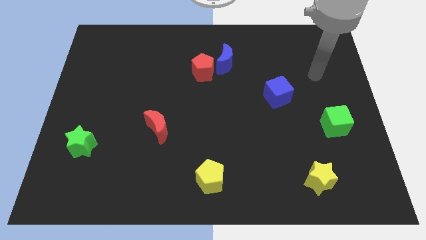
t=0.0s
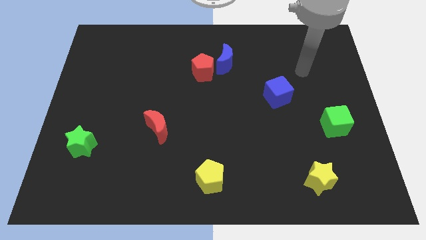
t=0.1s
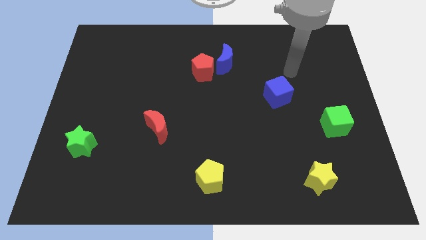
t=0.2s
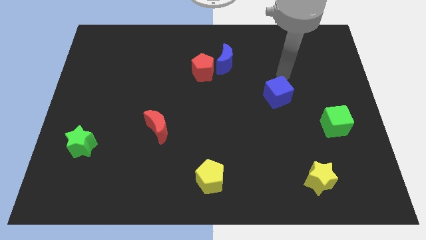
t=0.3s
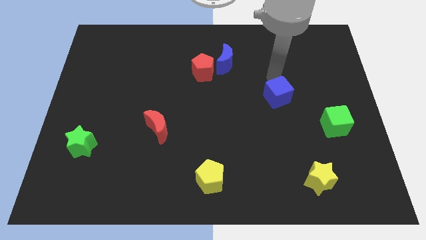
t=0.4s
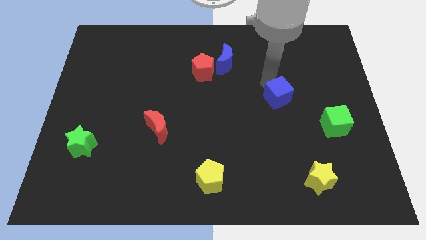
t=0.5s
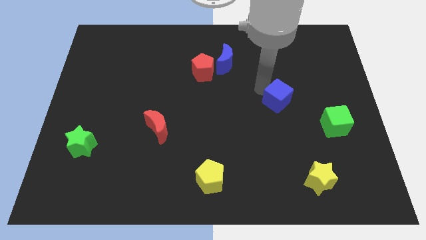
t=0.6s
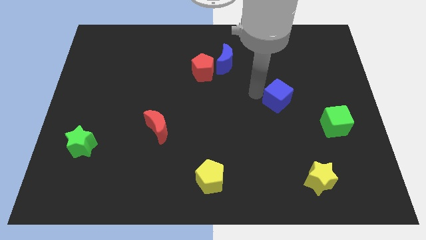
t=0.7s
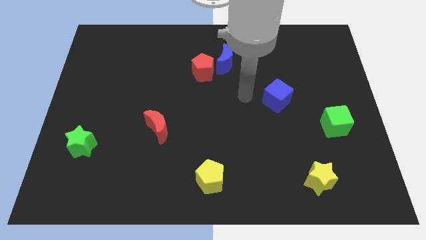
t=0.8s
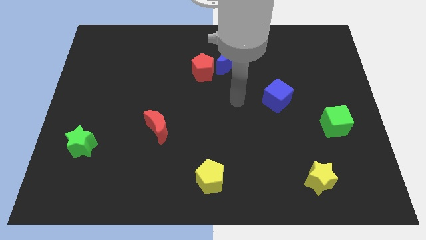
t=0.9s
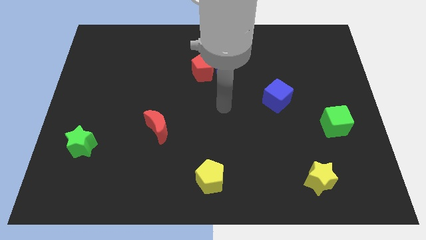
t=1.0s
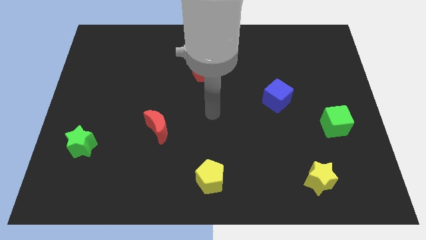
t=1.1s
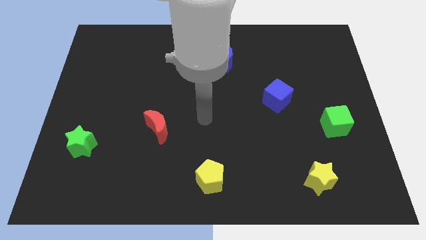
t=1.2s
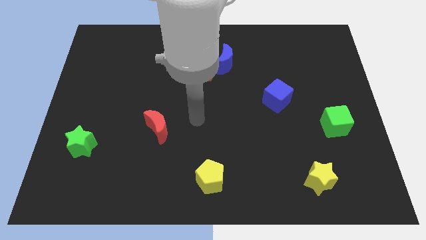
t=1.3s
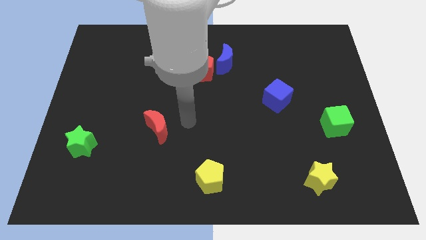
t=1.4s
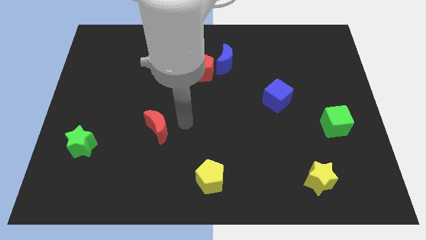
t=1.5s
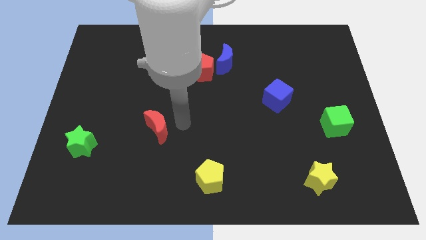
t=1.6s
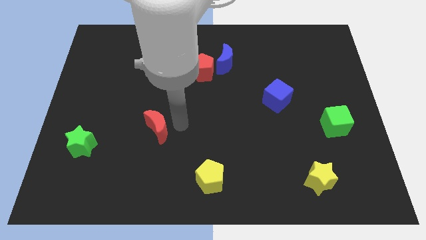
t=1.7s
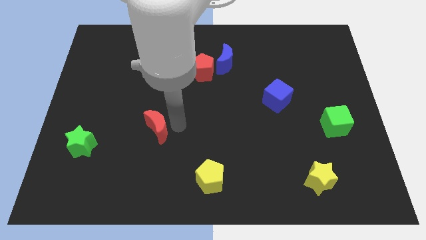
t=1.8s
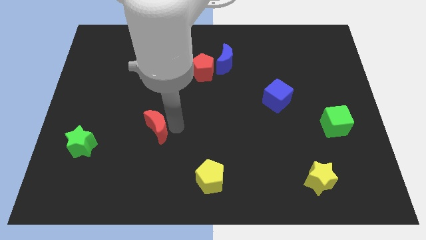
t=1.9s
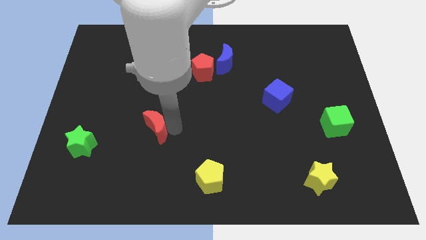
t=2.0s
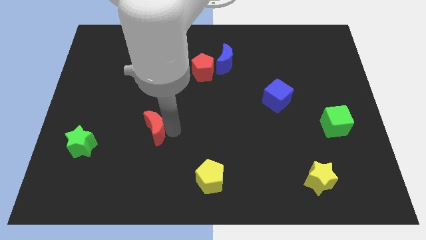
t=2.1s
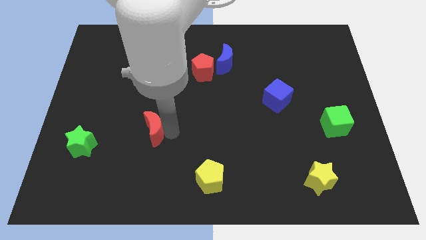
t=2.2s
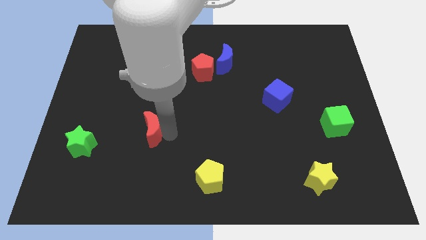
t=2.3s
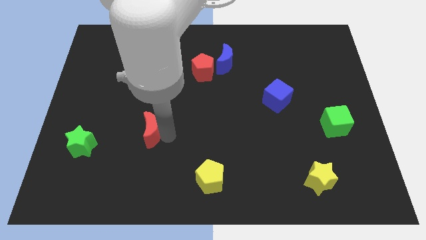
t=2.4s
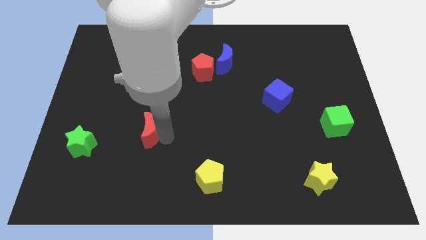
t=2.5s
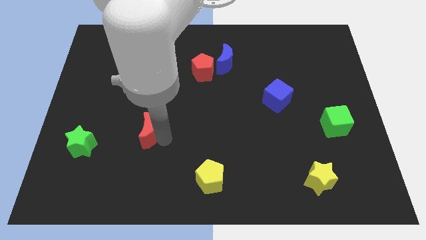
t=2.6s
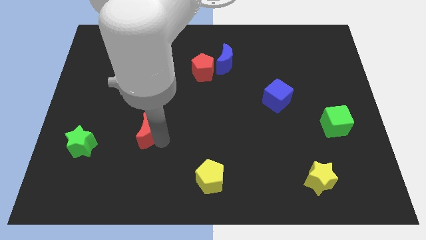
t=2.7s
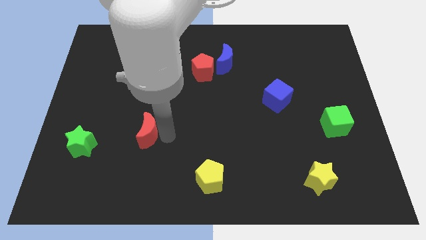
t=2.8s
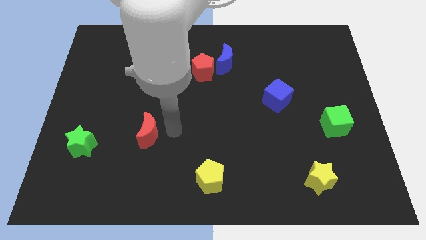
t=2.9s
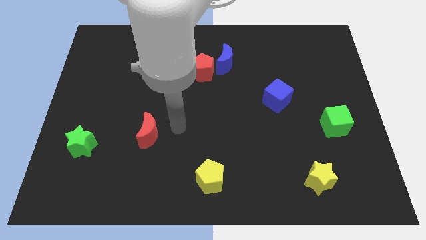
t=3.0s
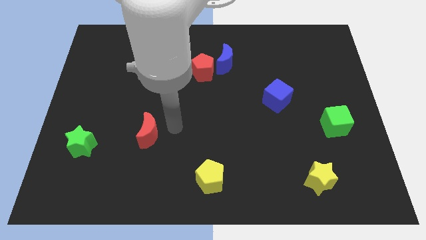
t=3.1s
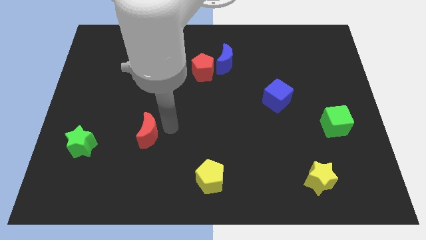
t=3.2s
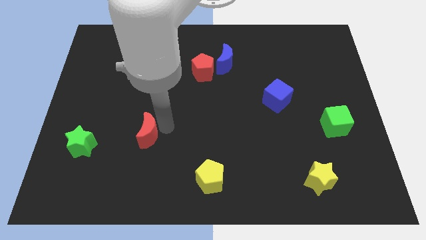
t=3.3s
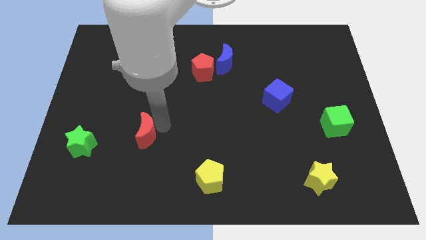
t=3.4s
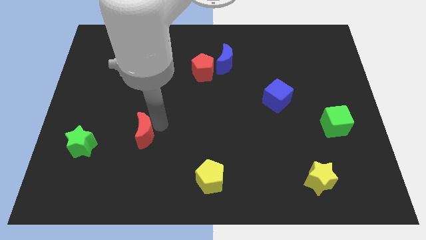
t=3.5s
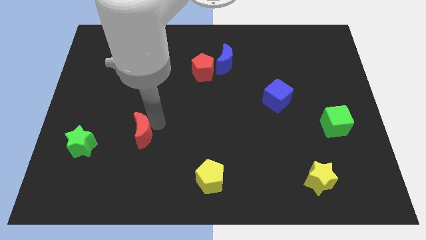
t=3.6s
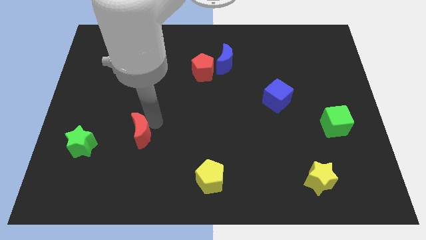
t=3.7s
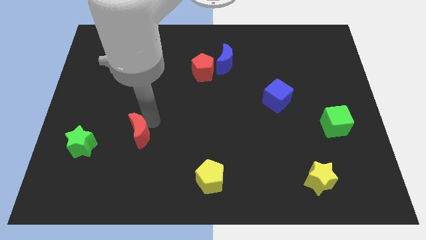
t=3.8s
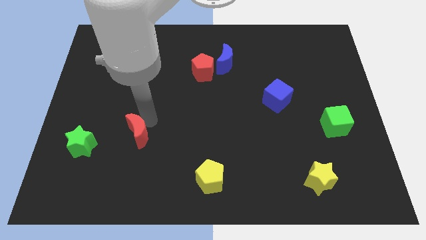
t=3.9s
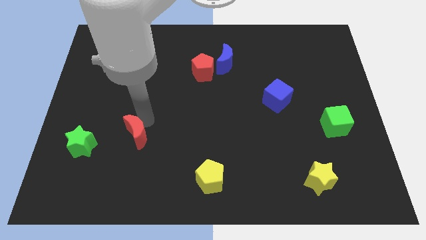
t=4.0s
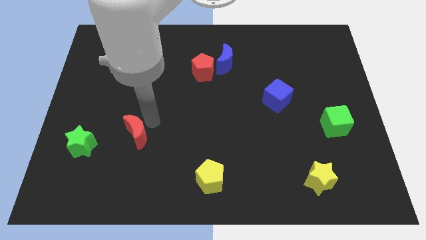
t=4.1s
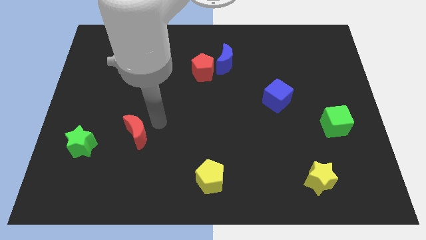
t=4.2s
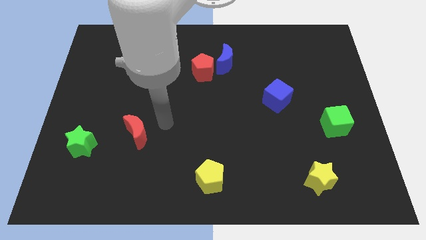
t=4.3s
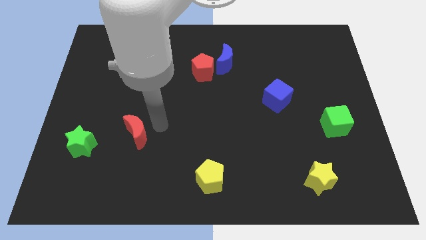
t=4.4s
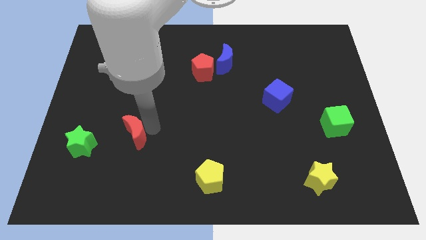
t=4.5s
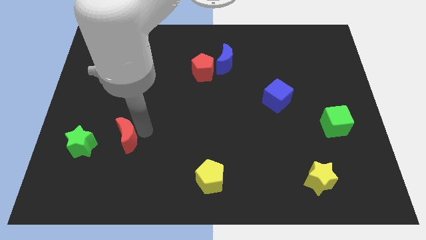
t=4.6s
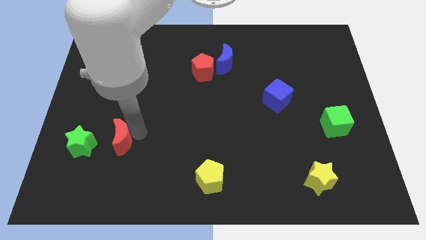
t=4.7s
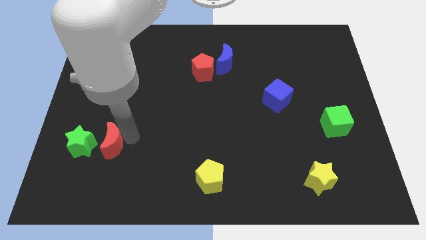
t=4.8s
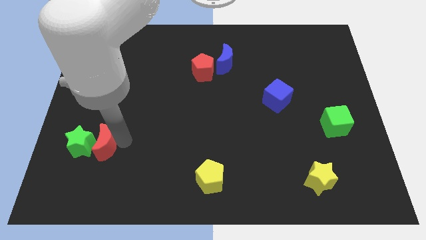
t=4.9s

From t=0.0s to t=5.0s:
put the red moon to the green star

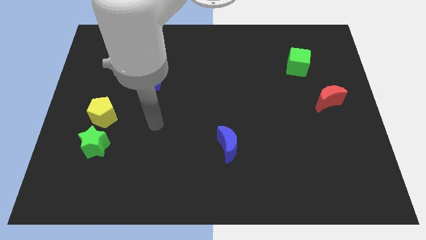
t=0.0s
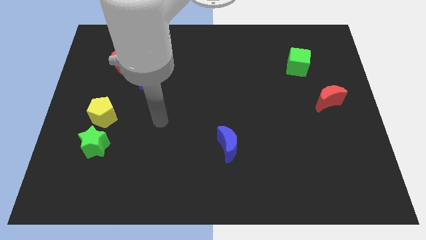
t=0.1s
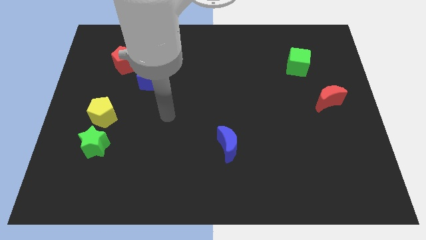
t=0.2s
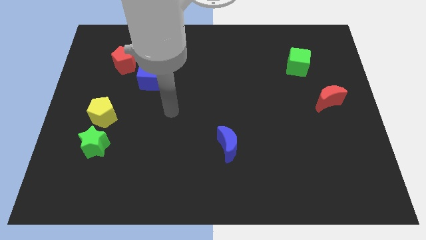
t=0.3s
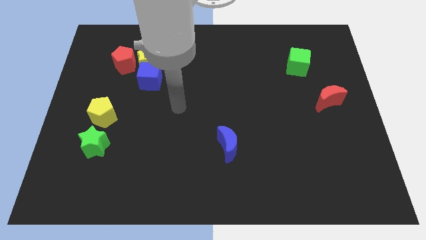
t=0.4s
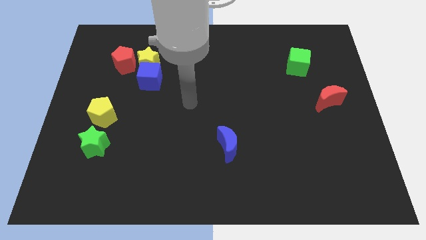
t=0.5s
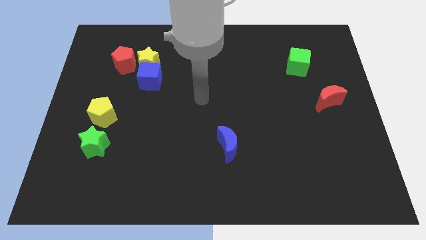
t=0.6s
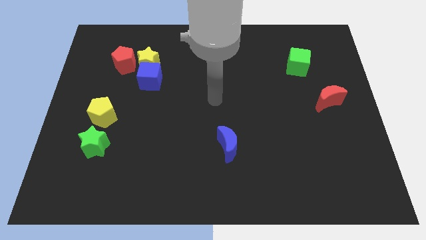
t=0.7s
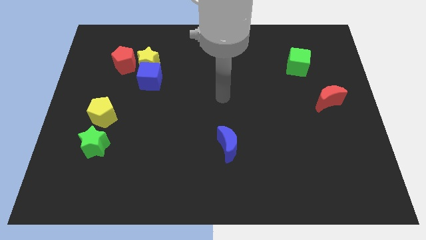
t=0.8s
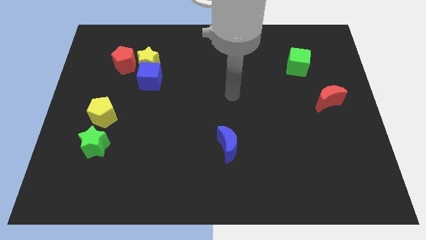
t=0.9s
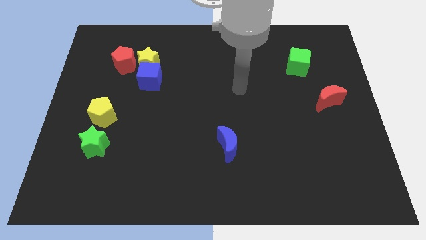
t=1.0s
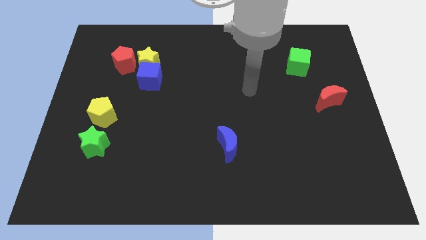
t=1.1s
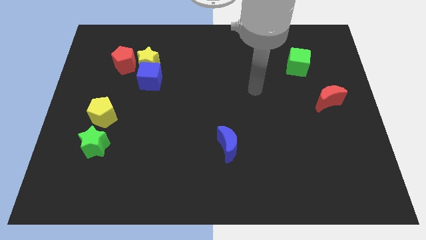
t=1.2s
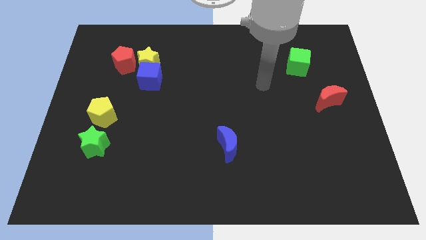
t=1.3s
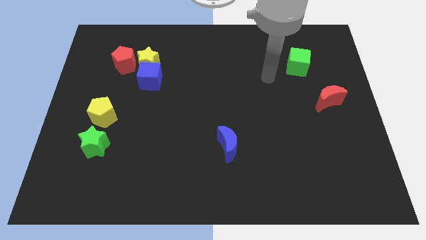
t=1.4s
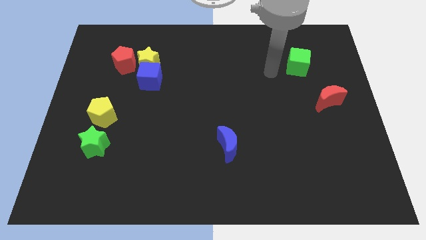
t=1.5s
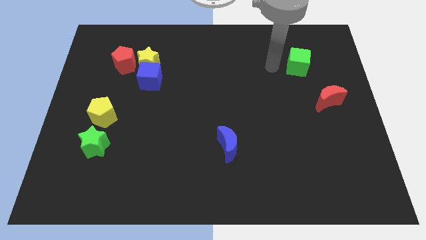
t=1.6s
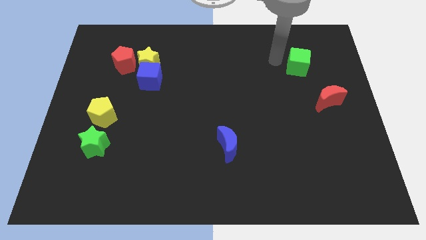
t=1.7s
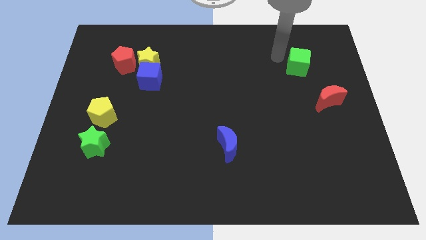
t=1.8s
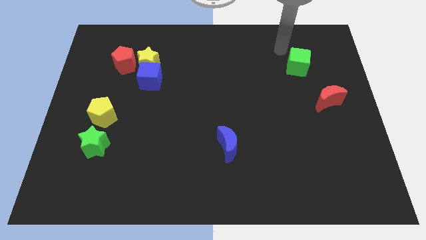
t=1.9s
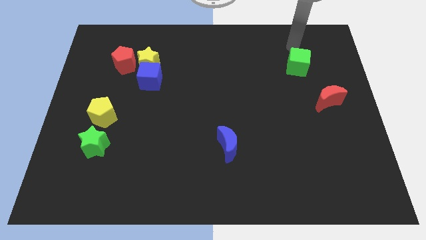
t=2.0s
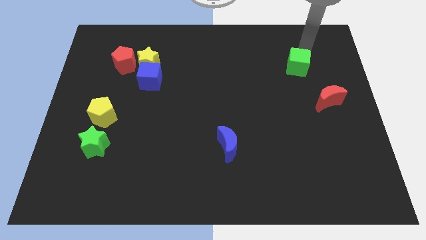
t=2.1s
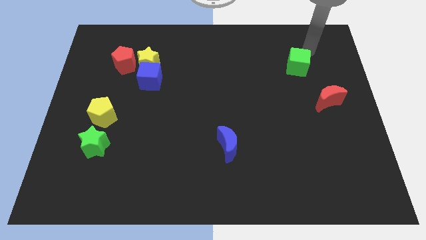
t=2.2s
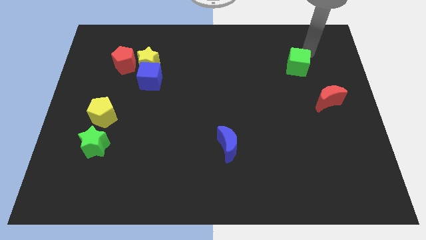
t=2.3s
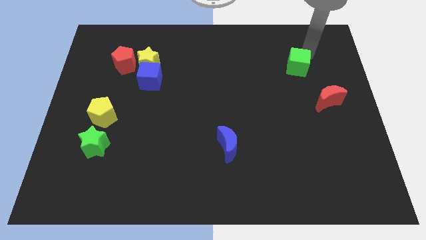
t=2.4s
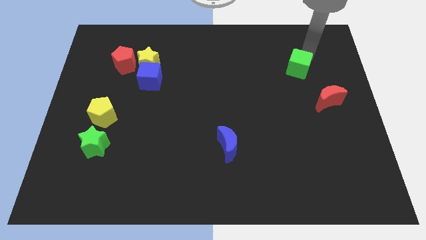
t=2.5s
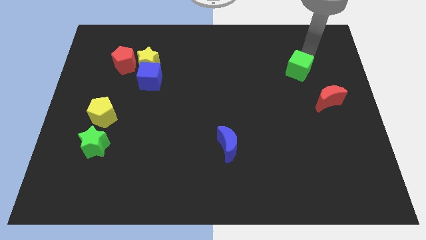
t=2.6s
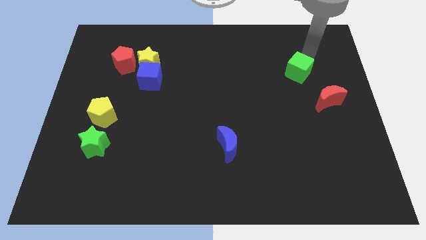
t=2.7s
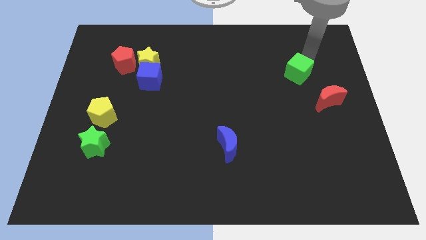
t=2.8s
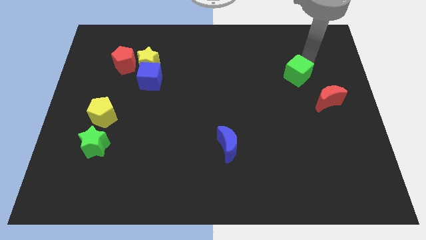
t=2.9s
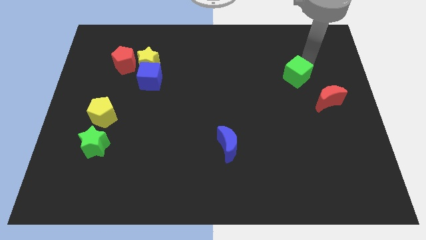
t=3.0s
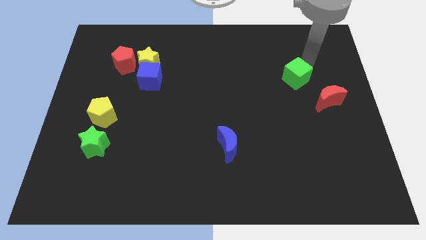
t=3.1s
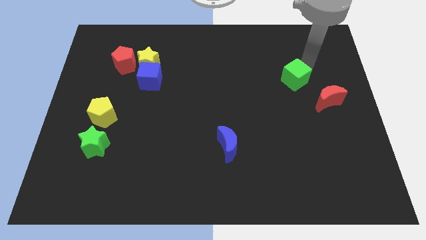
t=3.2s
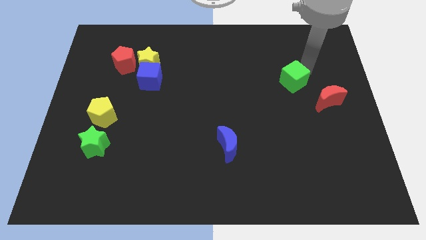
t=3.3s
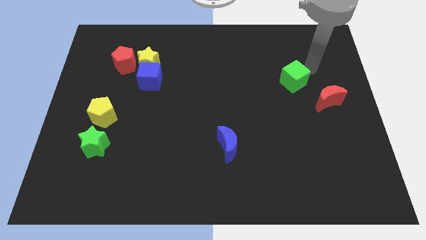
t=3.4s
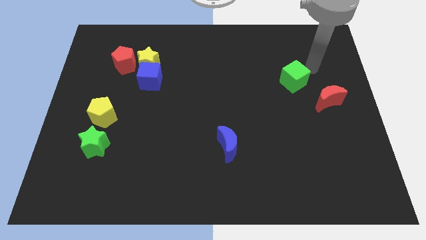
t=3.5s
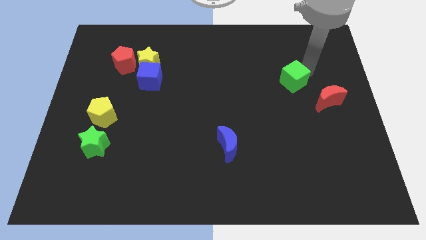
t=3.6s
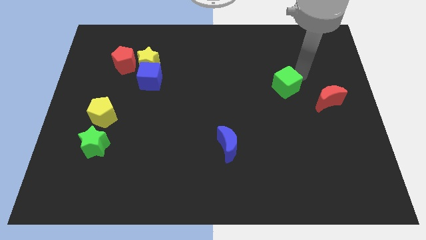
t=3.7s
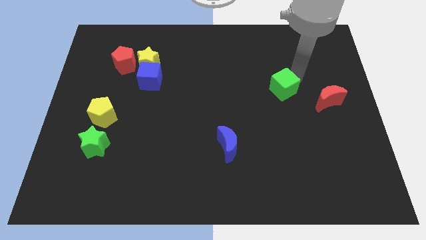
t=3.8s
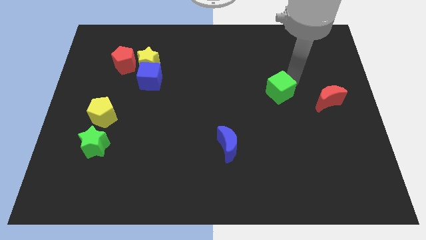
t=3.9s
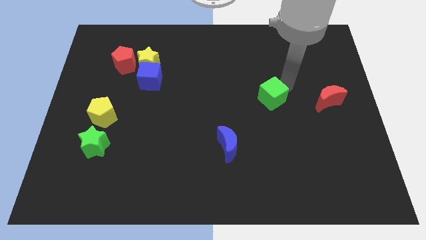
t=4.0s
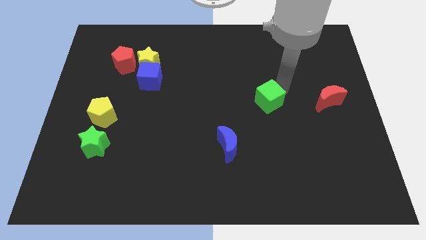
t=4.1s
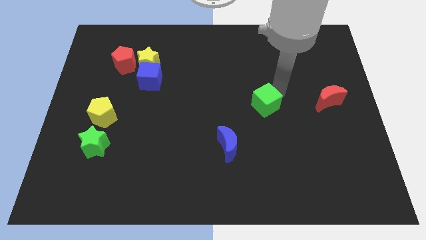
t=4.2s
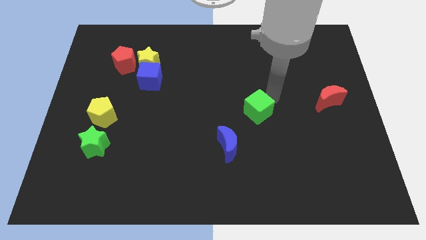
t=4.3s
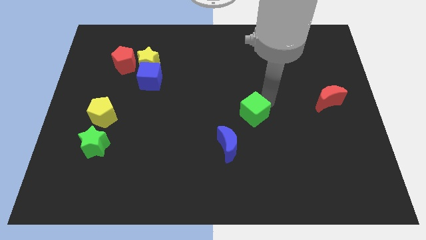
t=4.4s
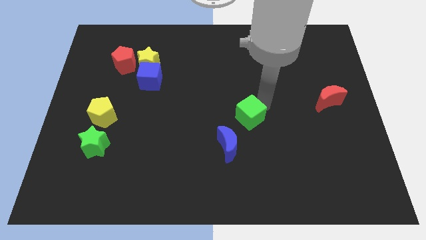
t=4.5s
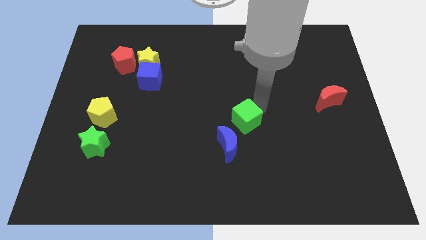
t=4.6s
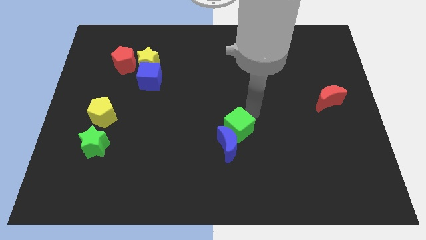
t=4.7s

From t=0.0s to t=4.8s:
push the green cube close to the blue moon
